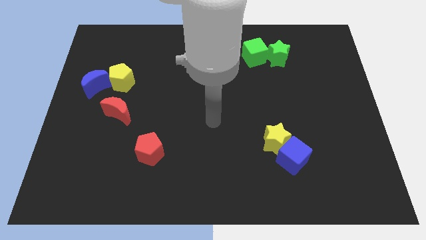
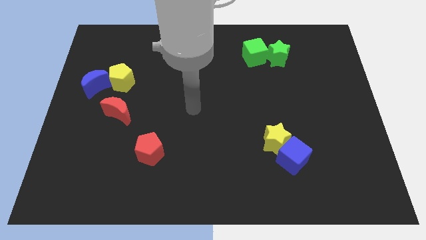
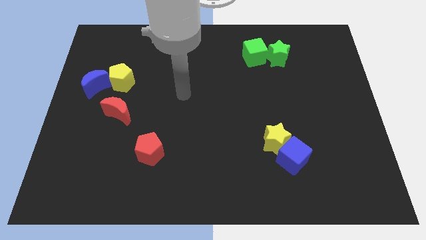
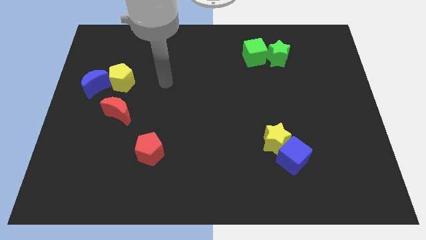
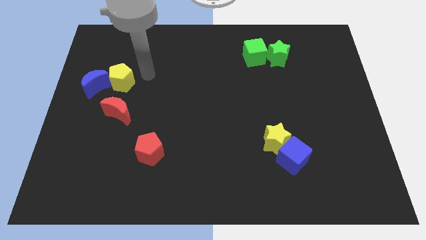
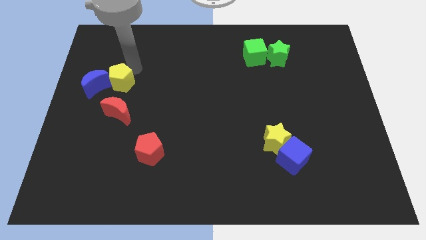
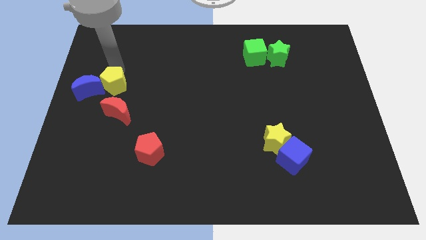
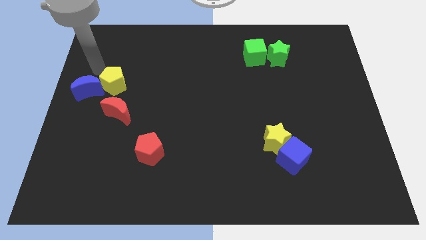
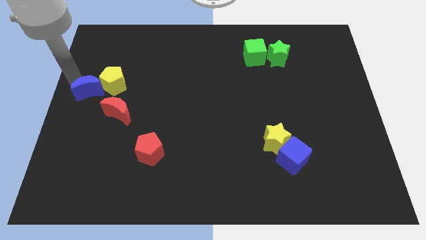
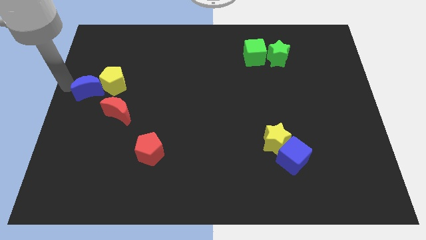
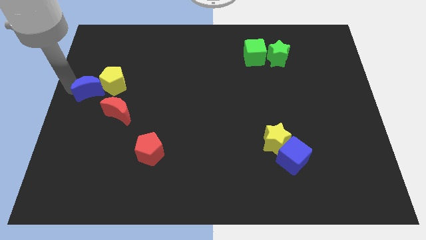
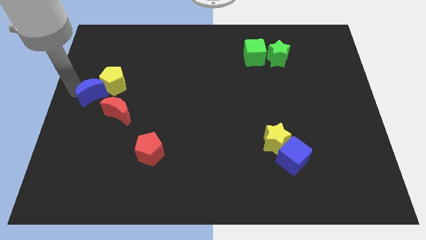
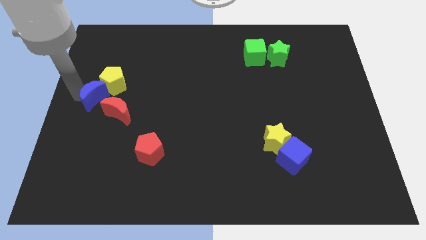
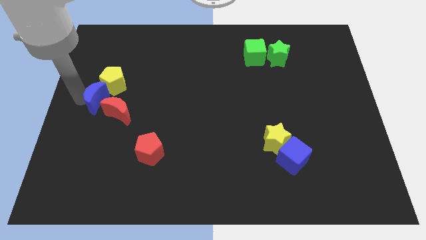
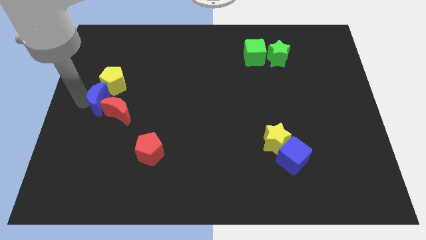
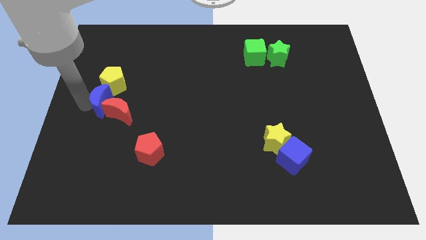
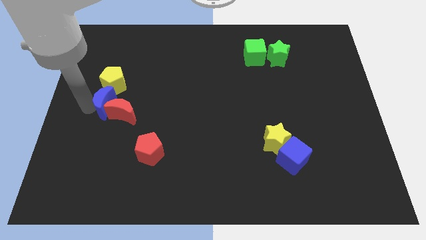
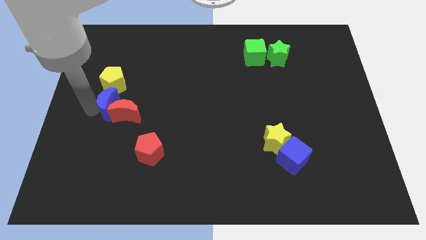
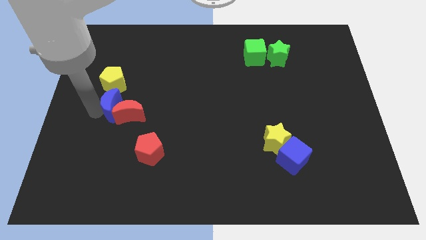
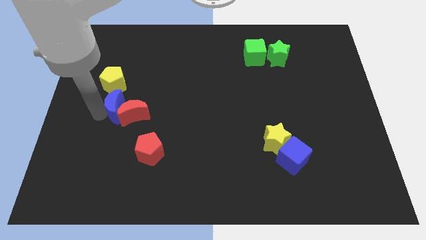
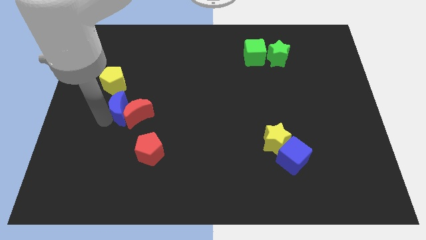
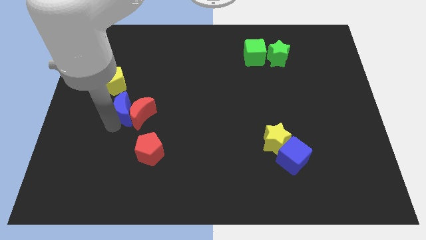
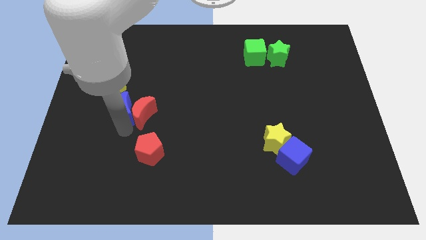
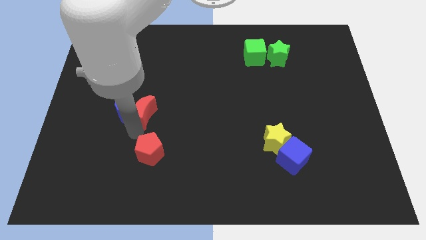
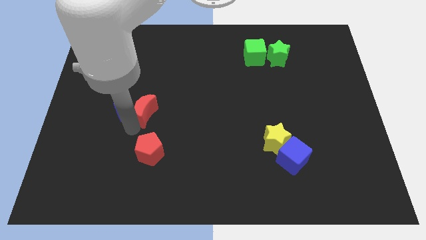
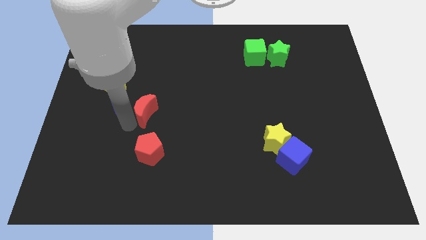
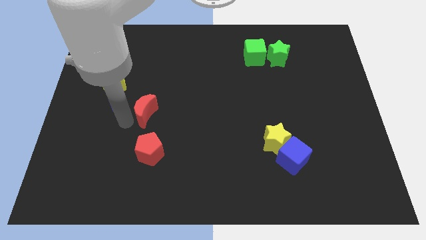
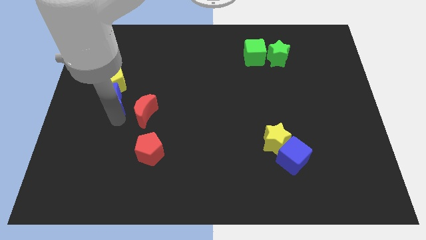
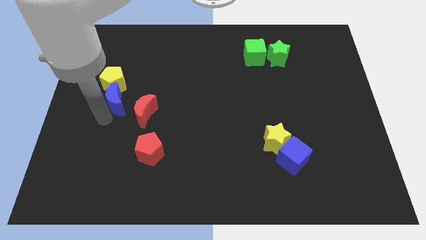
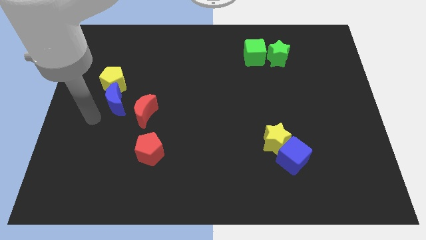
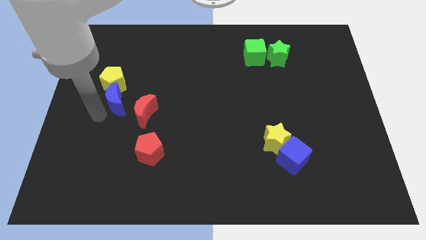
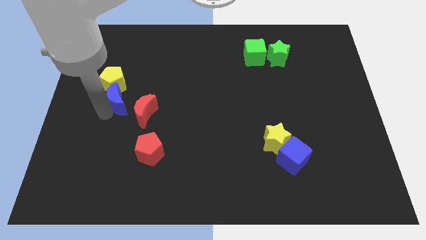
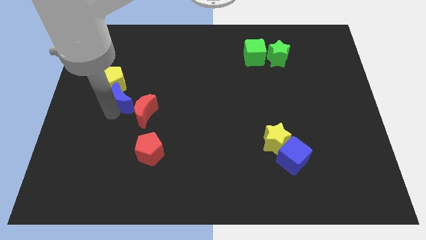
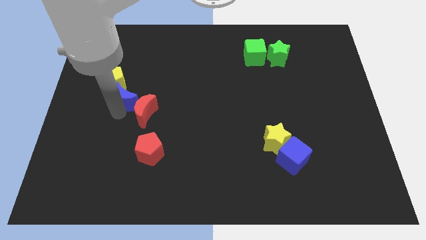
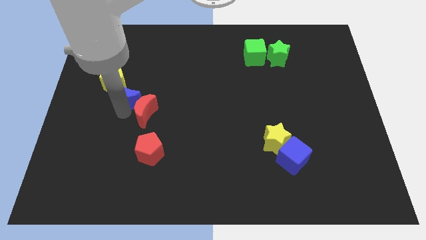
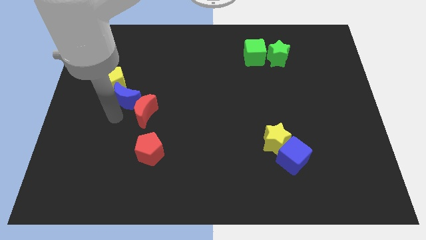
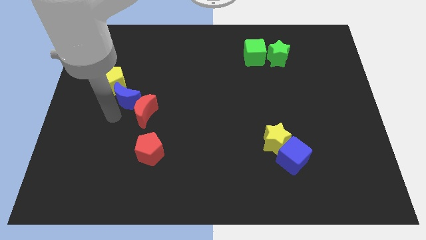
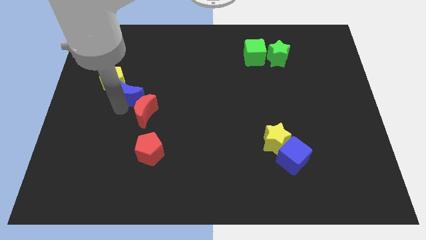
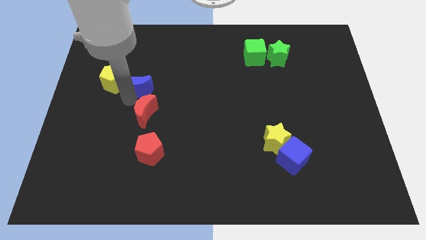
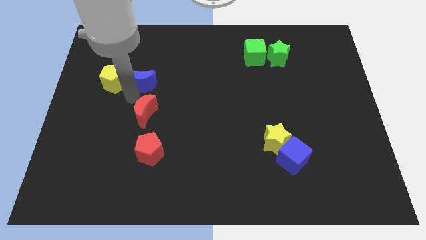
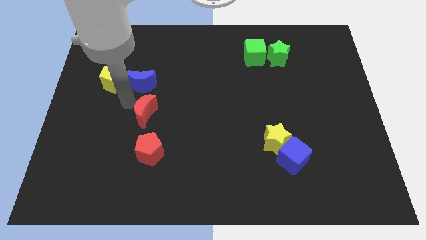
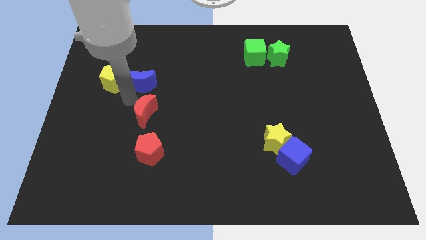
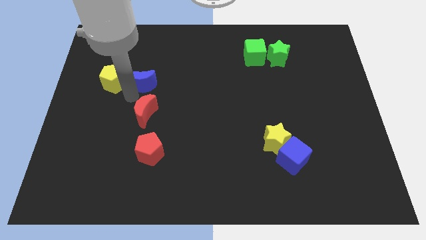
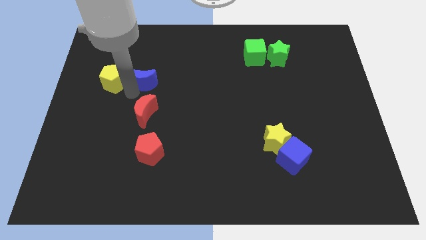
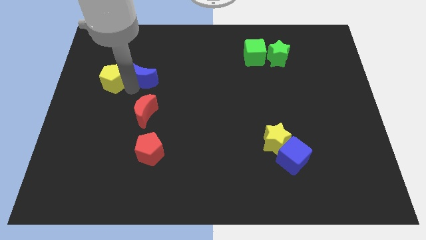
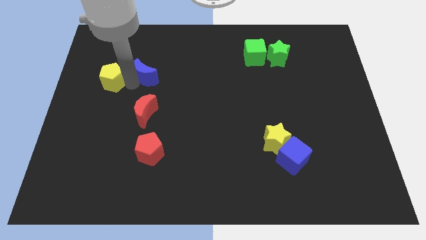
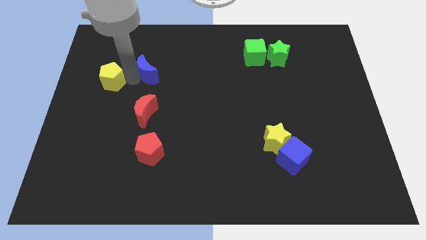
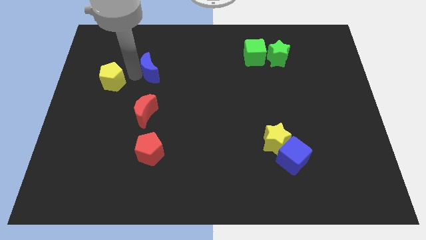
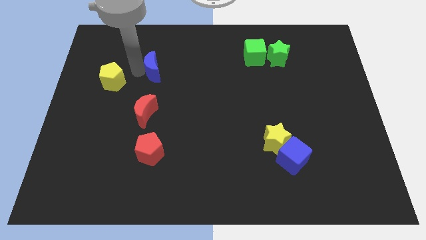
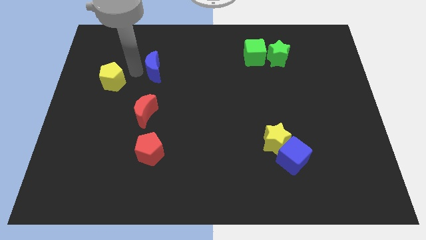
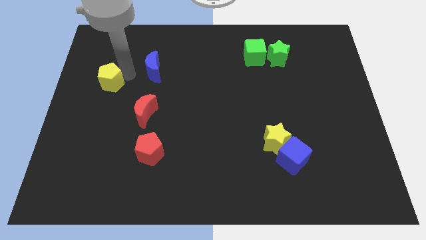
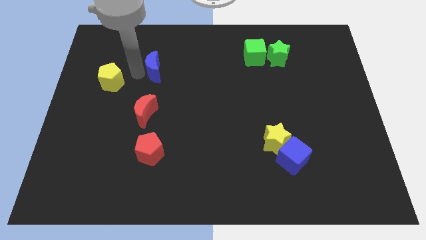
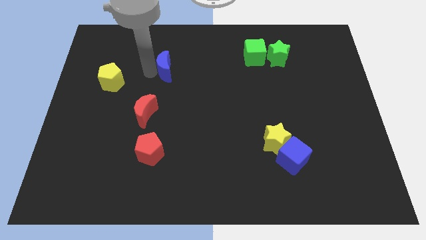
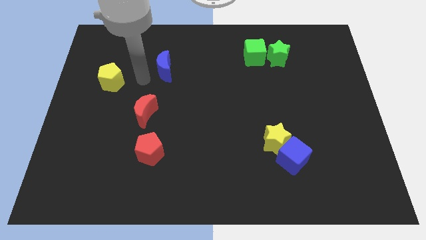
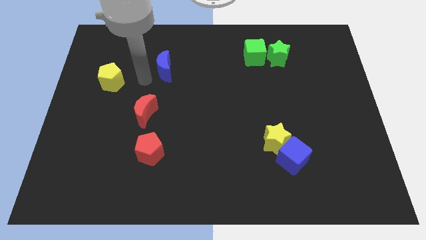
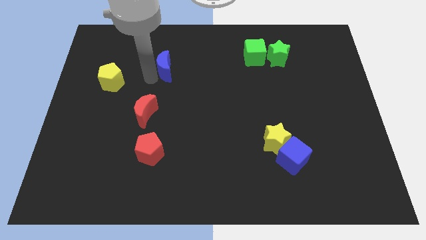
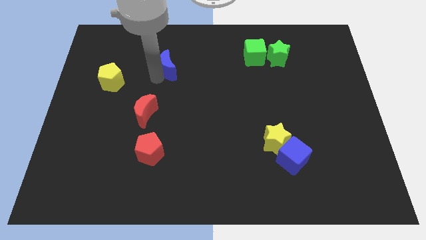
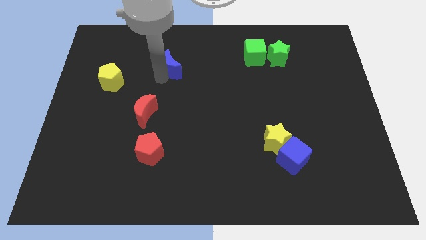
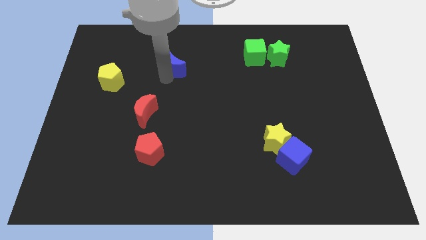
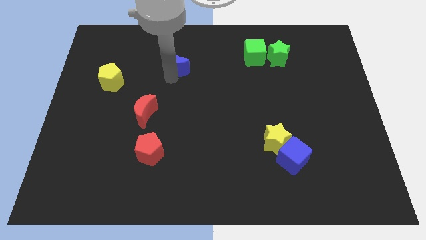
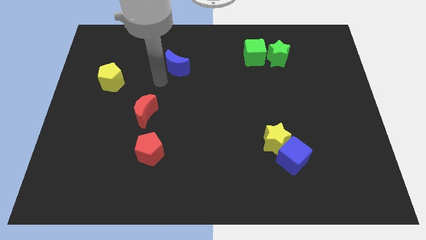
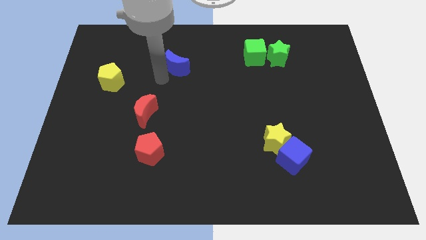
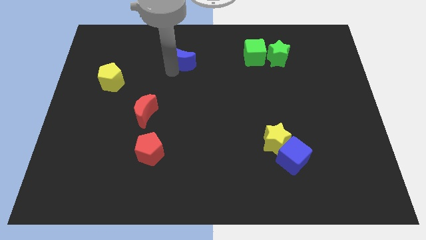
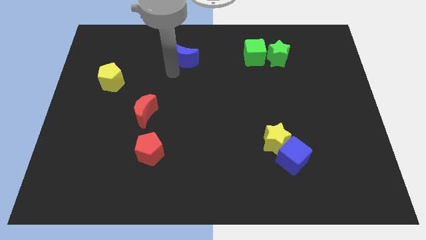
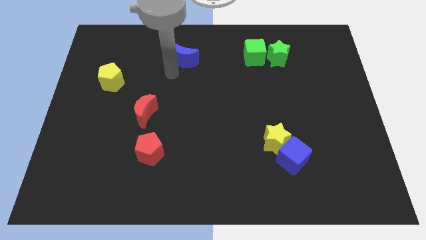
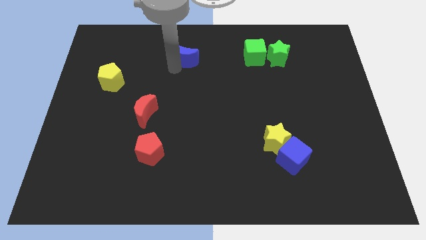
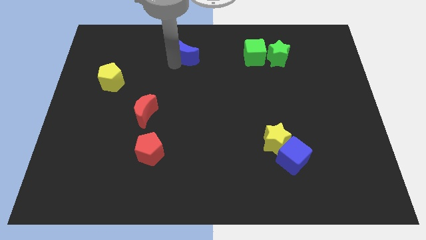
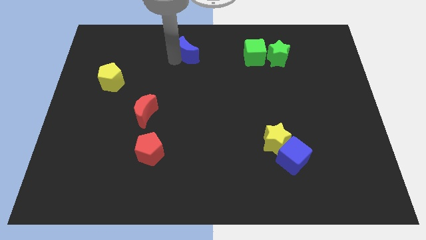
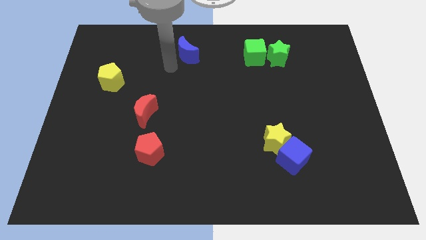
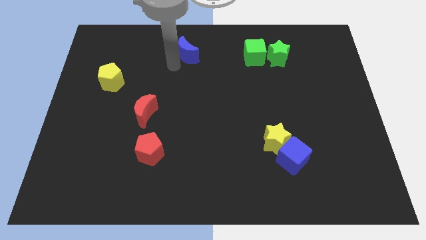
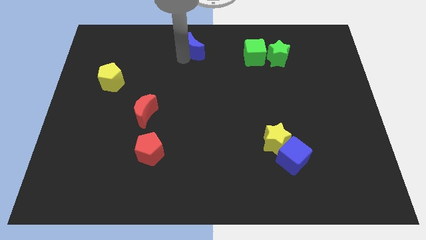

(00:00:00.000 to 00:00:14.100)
push the blue moon to the top side
